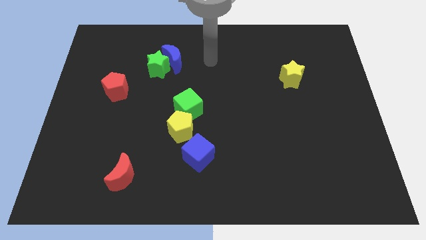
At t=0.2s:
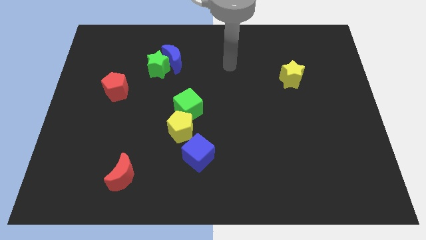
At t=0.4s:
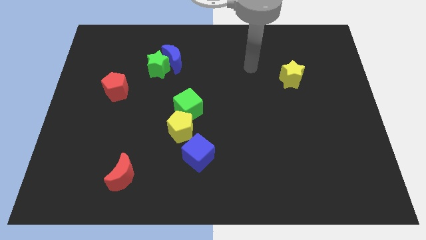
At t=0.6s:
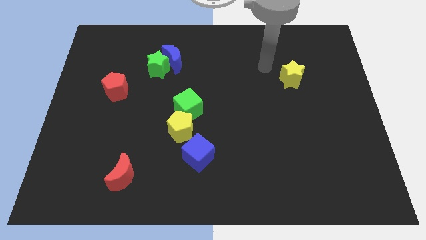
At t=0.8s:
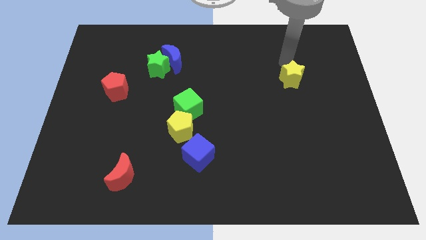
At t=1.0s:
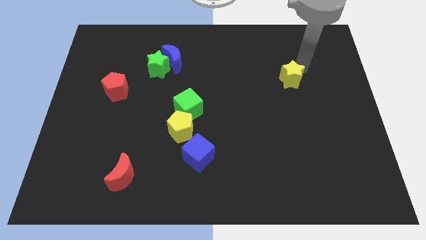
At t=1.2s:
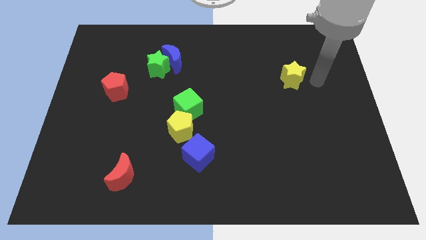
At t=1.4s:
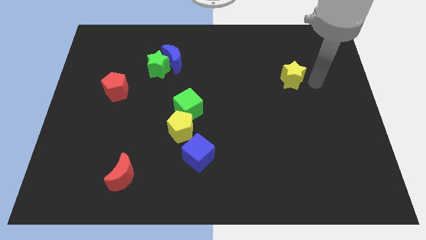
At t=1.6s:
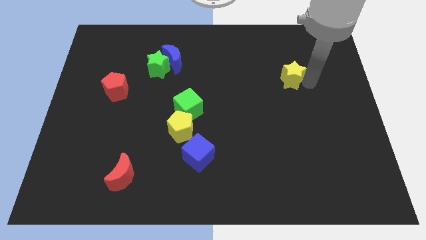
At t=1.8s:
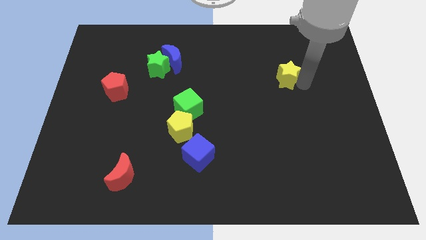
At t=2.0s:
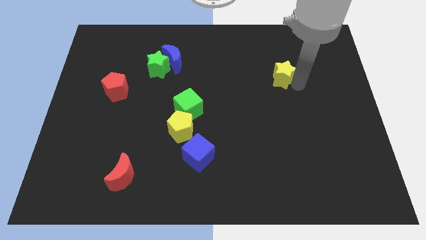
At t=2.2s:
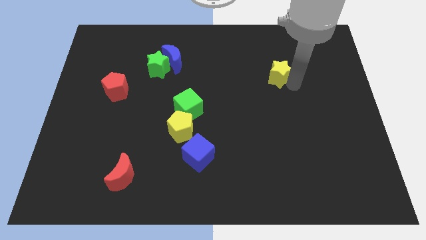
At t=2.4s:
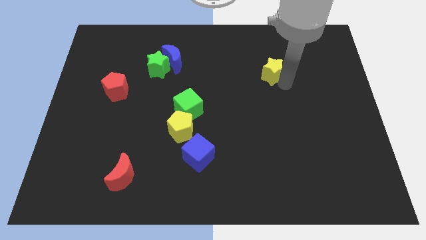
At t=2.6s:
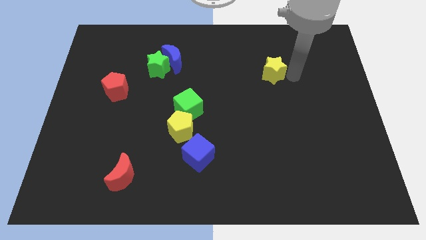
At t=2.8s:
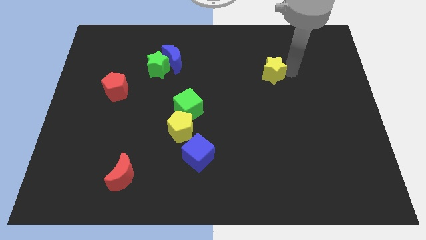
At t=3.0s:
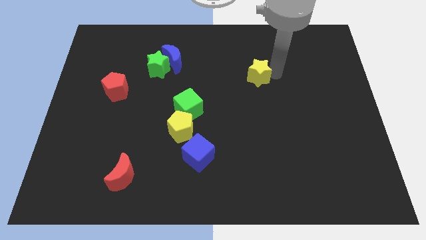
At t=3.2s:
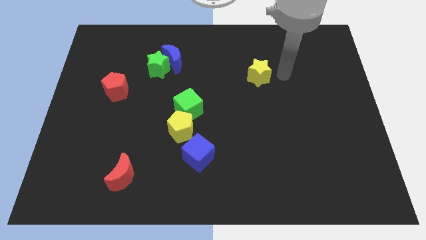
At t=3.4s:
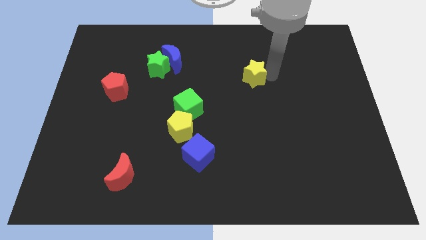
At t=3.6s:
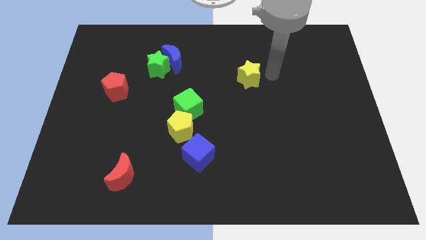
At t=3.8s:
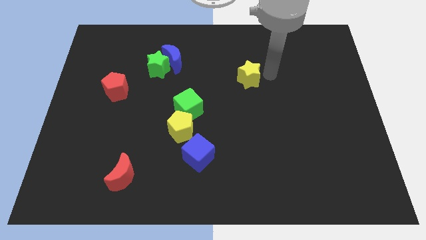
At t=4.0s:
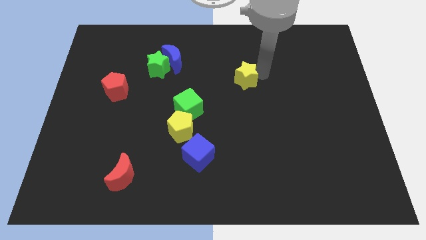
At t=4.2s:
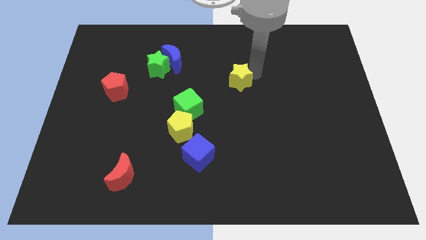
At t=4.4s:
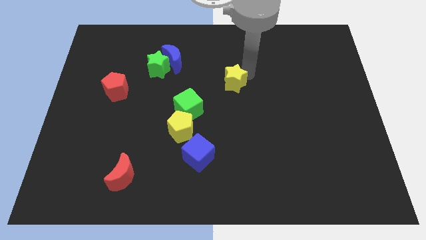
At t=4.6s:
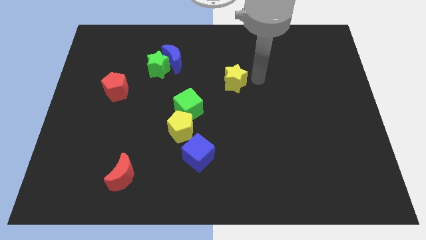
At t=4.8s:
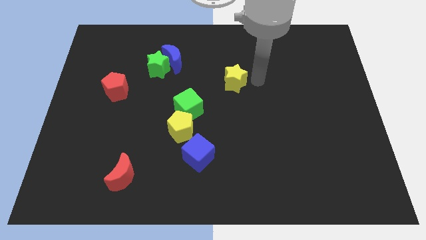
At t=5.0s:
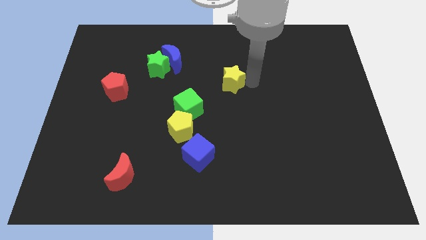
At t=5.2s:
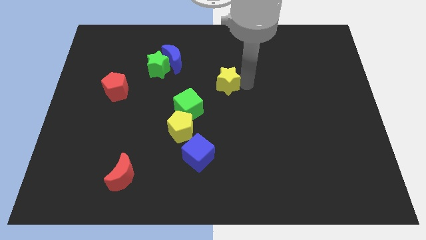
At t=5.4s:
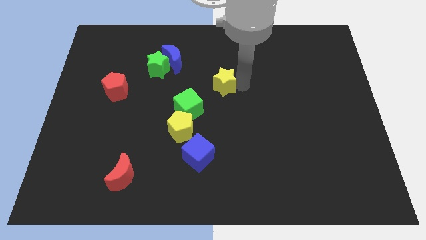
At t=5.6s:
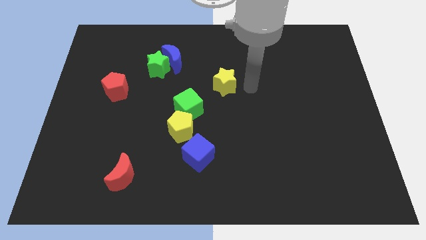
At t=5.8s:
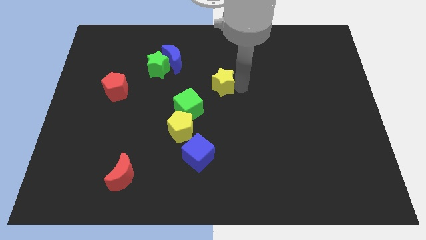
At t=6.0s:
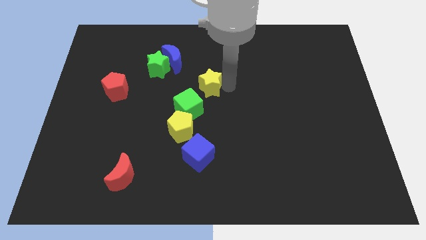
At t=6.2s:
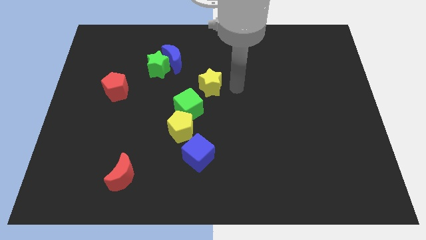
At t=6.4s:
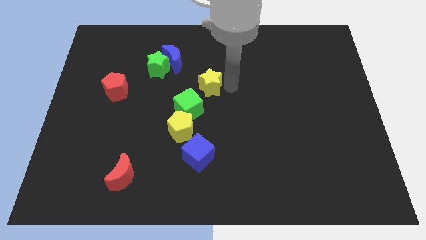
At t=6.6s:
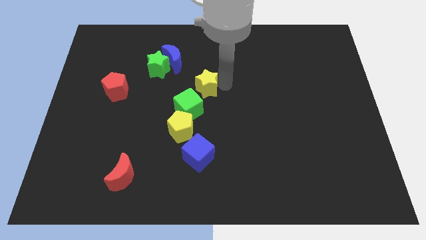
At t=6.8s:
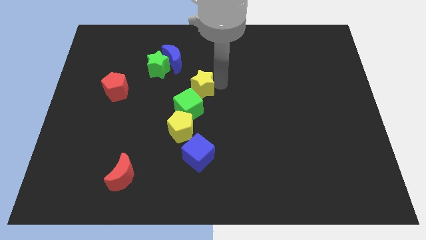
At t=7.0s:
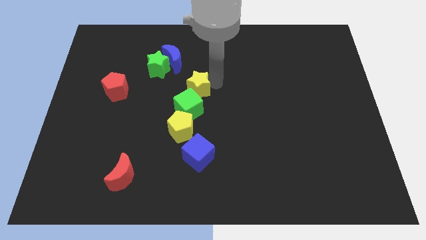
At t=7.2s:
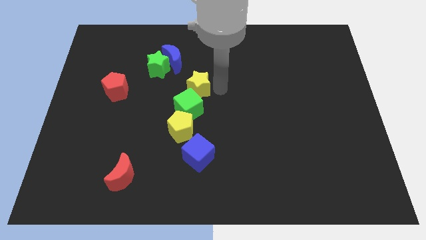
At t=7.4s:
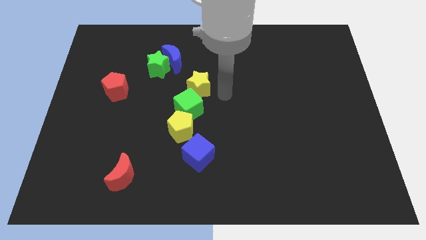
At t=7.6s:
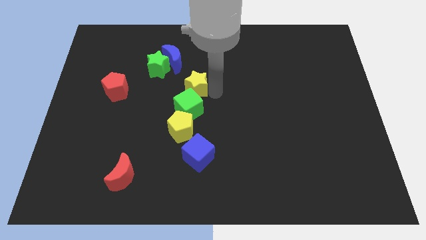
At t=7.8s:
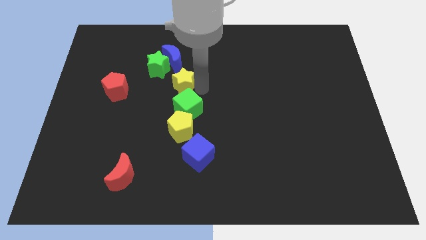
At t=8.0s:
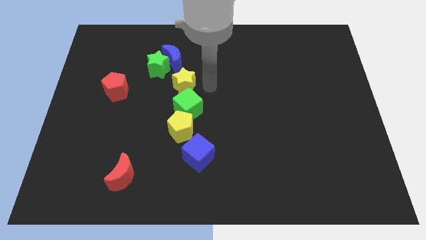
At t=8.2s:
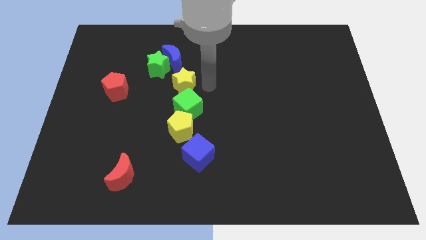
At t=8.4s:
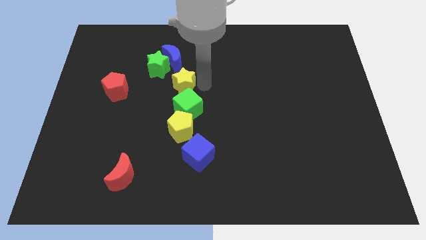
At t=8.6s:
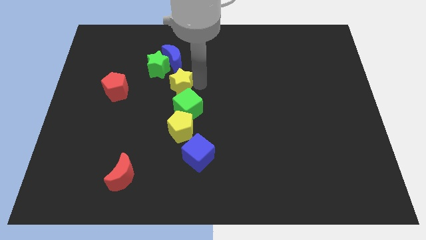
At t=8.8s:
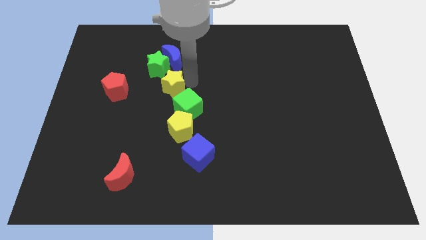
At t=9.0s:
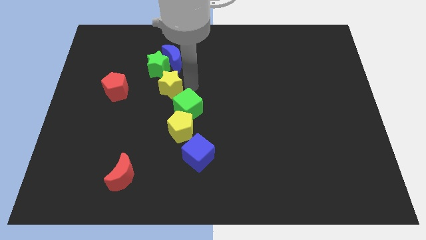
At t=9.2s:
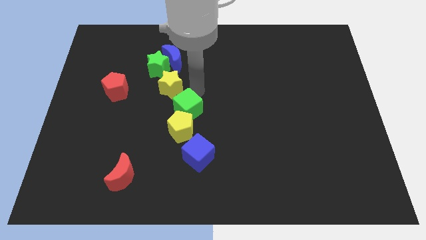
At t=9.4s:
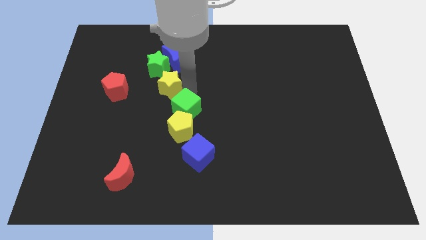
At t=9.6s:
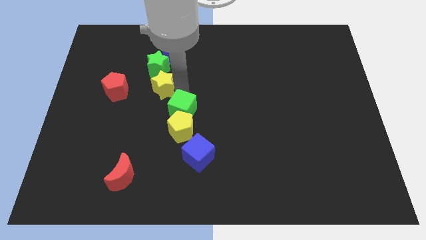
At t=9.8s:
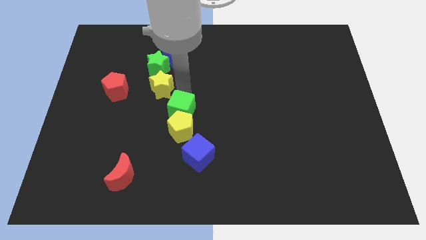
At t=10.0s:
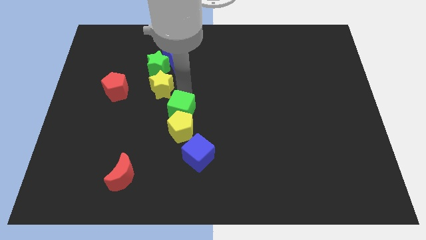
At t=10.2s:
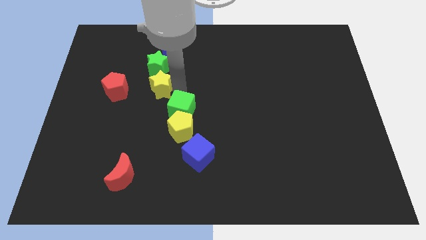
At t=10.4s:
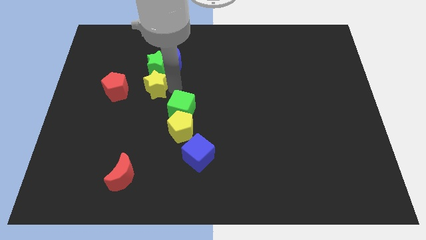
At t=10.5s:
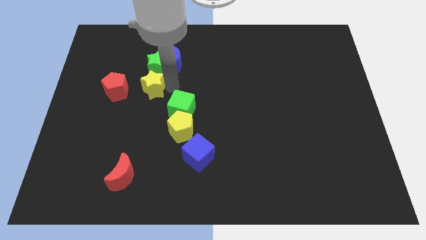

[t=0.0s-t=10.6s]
slide the yellow star to the bottom left side of the green star

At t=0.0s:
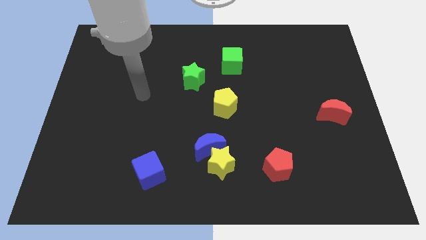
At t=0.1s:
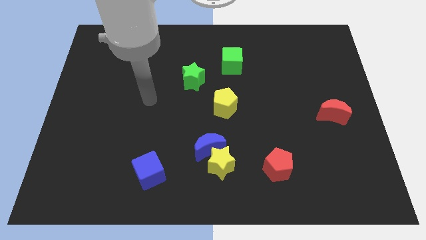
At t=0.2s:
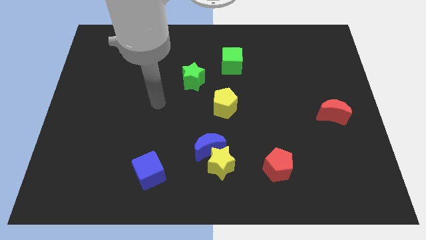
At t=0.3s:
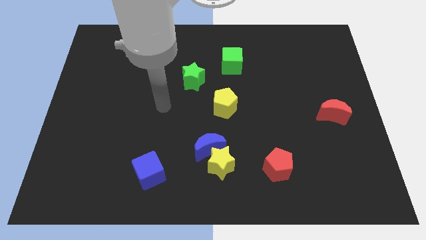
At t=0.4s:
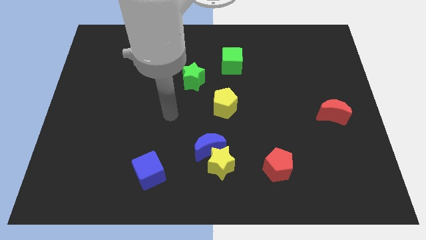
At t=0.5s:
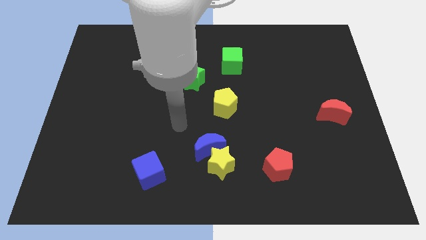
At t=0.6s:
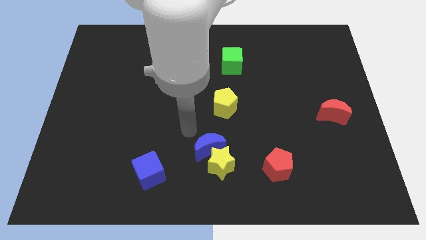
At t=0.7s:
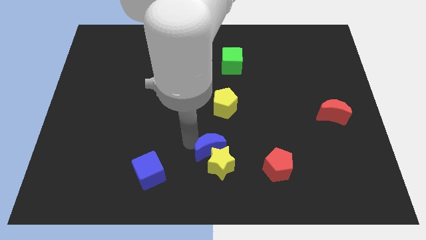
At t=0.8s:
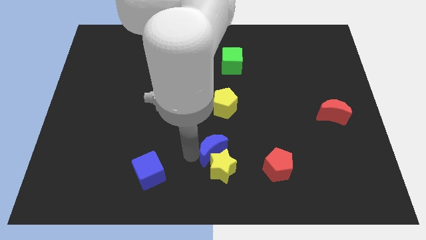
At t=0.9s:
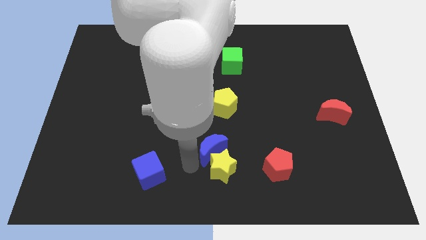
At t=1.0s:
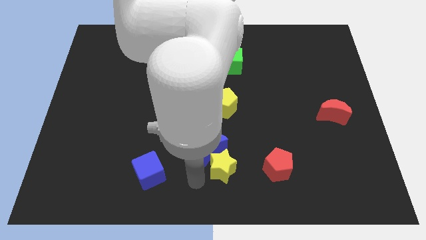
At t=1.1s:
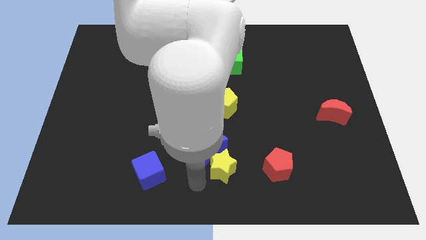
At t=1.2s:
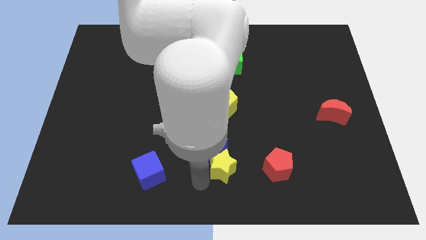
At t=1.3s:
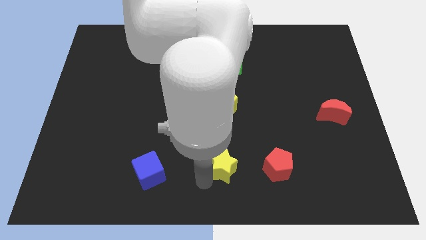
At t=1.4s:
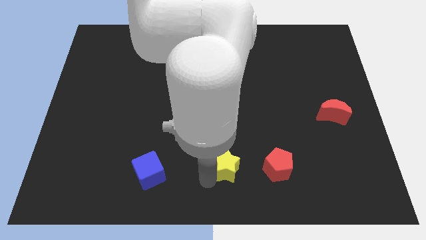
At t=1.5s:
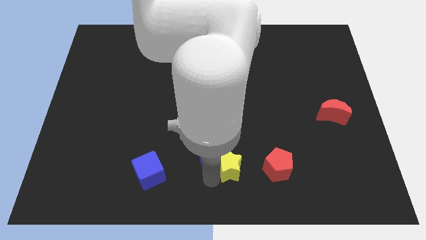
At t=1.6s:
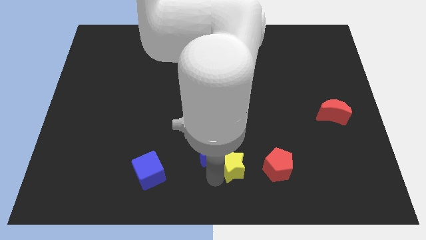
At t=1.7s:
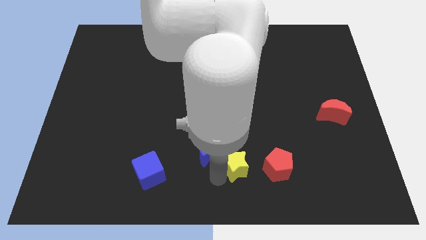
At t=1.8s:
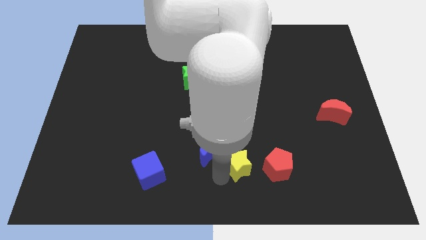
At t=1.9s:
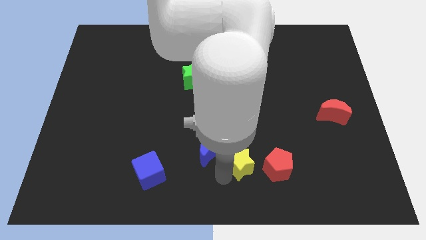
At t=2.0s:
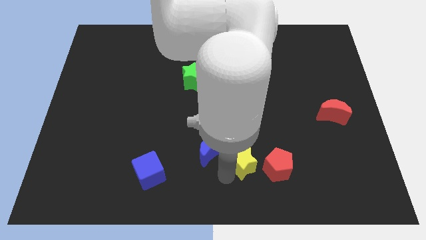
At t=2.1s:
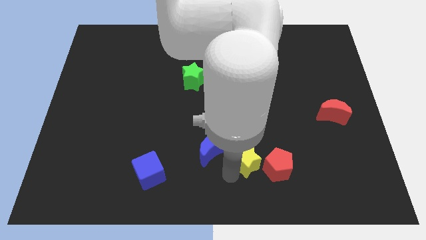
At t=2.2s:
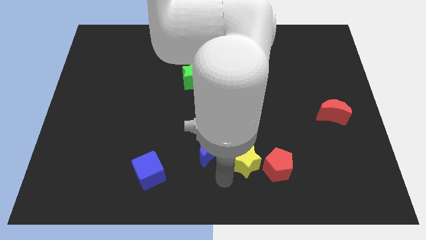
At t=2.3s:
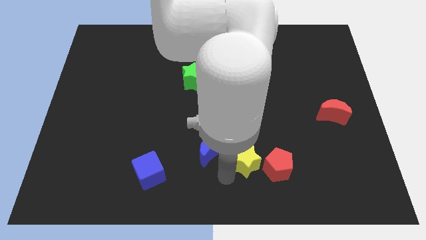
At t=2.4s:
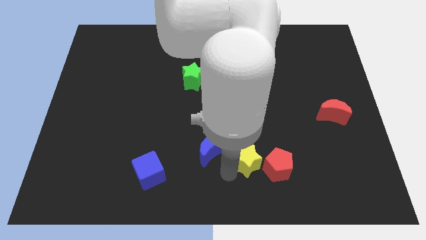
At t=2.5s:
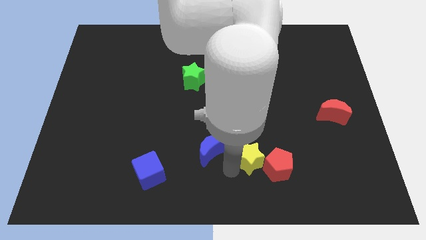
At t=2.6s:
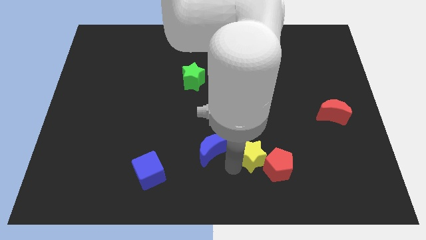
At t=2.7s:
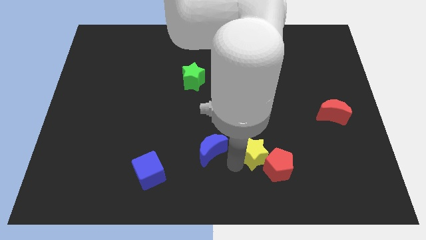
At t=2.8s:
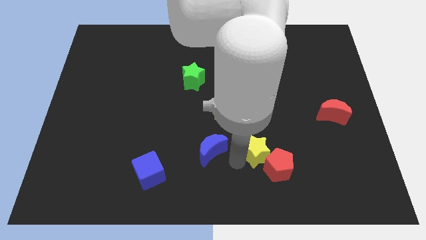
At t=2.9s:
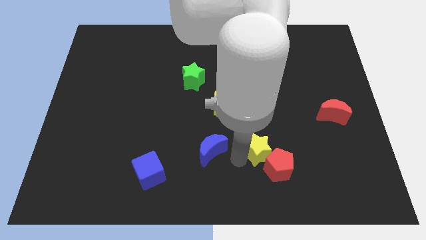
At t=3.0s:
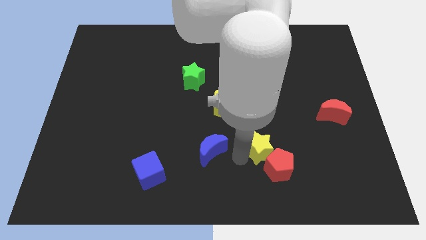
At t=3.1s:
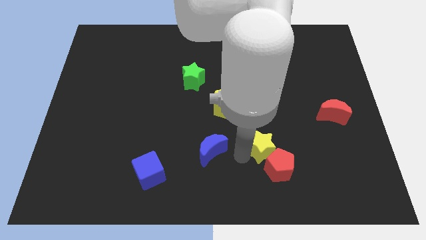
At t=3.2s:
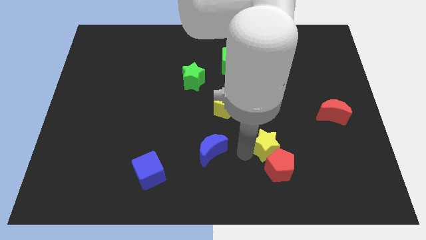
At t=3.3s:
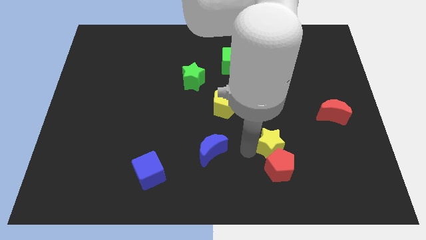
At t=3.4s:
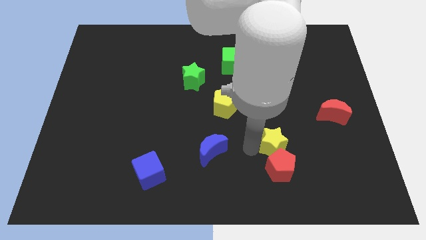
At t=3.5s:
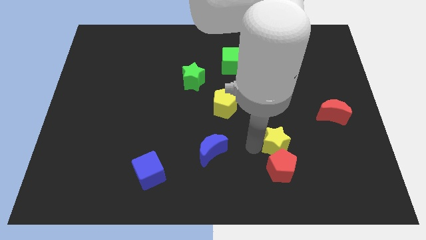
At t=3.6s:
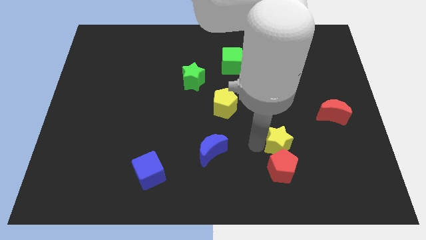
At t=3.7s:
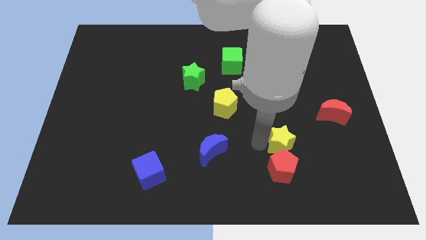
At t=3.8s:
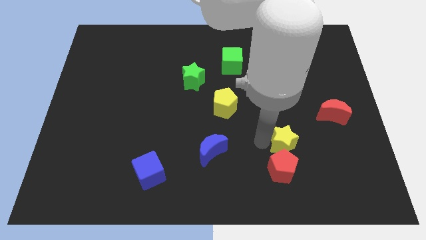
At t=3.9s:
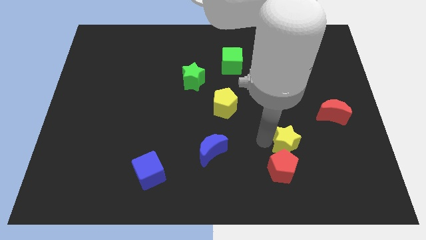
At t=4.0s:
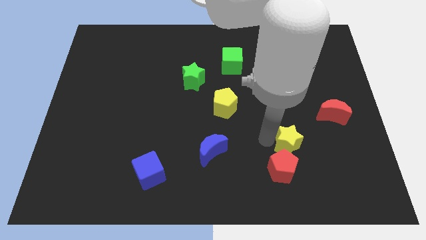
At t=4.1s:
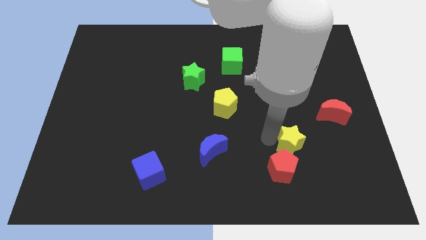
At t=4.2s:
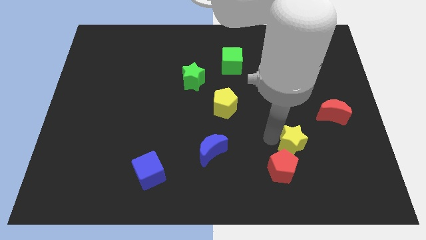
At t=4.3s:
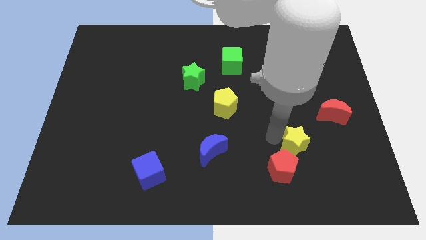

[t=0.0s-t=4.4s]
move the yellow star to the bottom left side of the red moon
